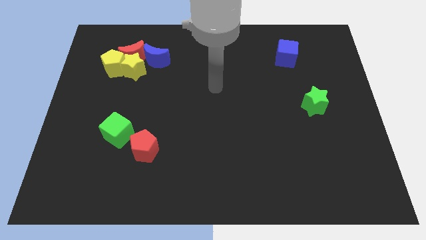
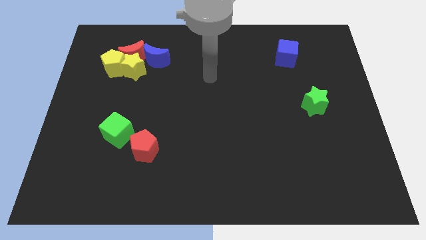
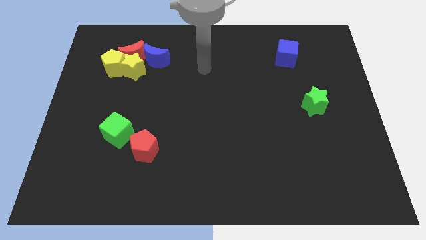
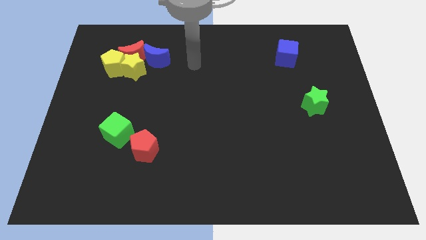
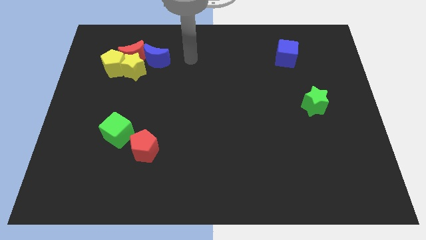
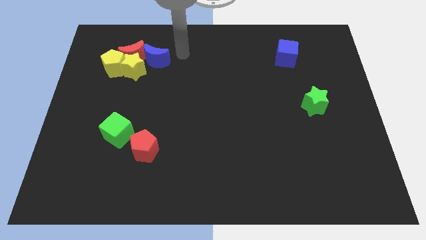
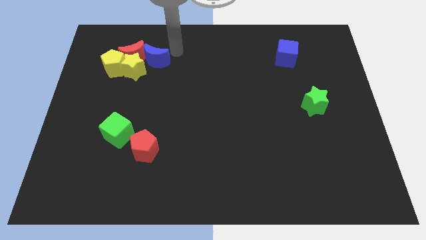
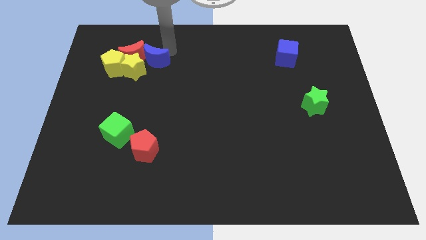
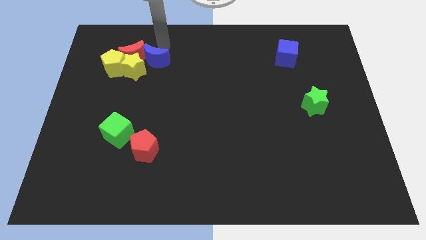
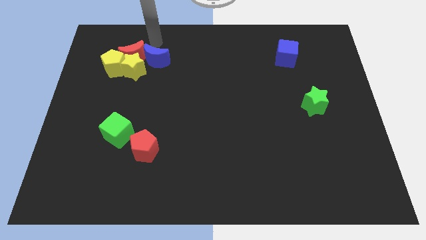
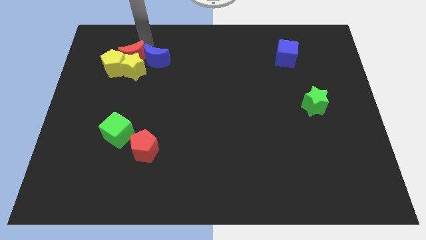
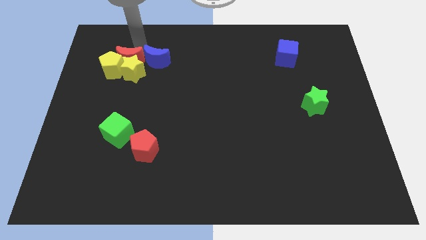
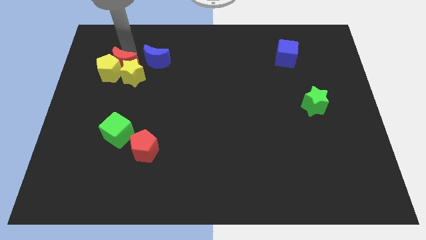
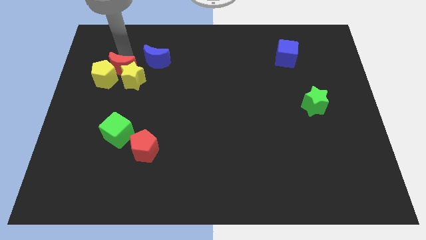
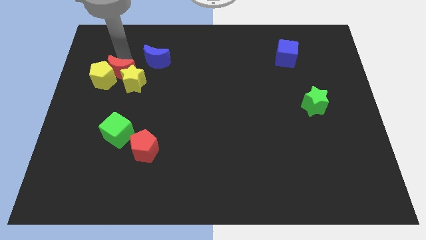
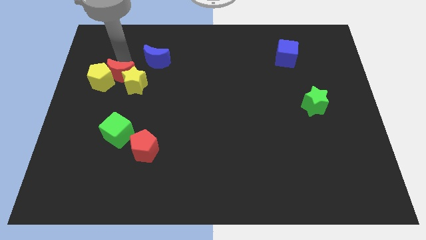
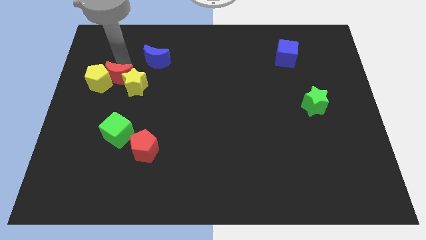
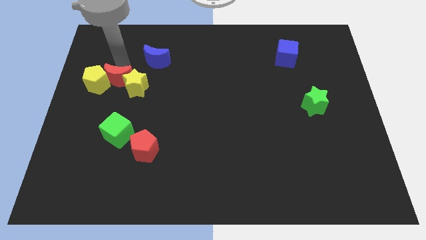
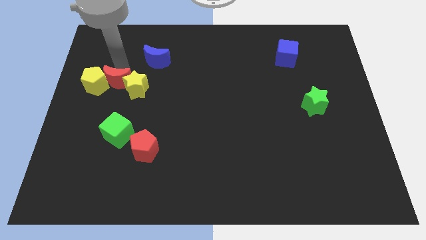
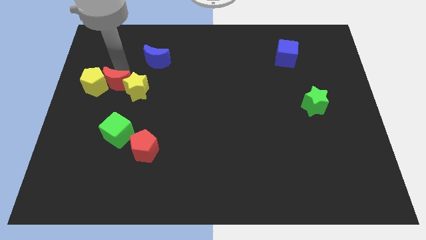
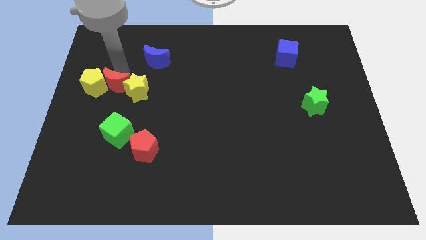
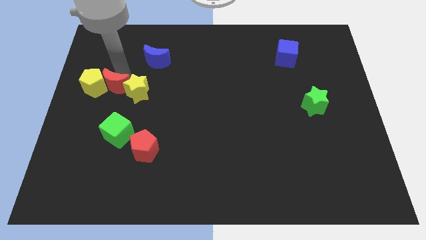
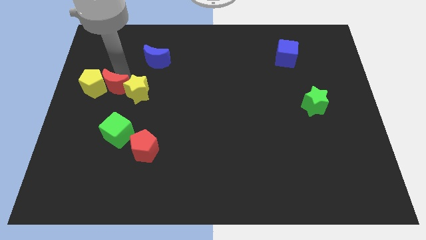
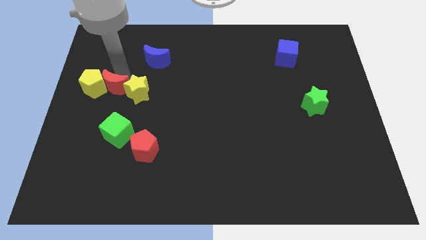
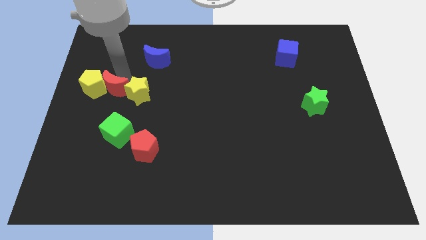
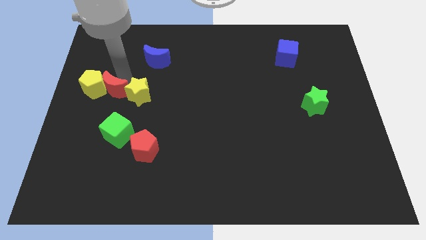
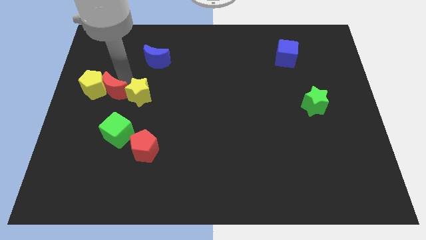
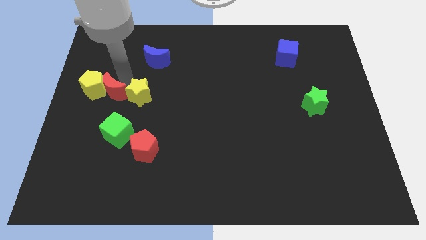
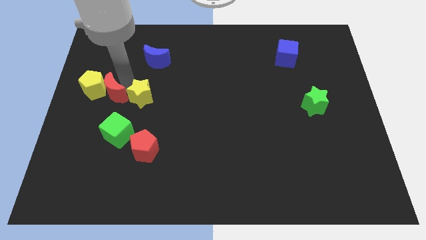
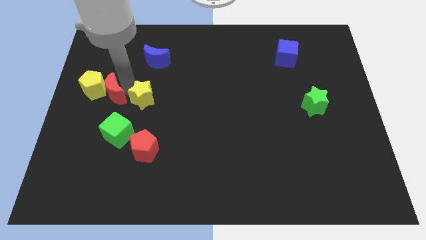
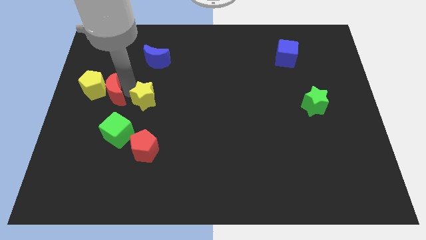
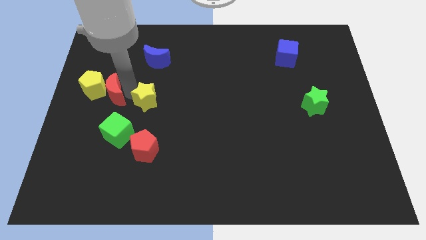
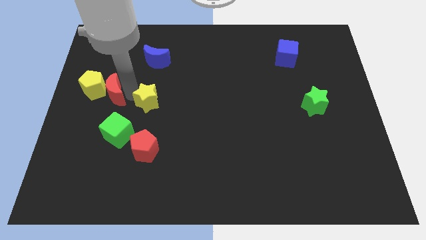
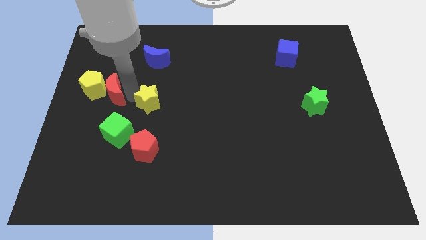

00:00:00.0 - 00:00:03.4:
separate the yellow star from the red moon, yellow pentagon, and blue moon

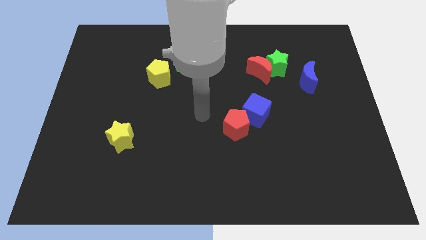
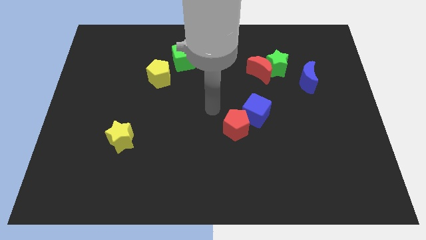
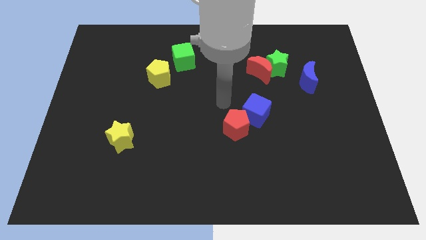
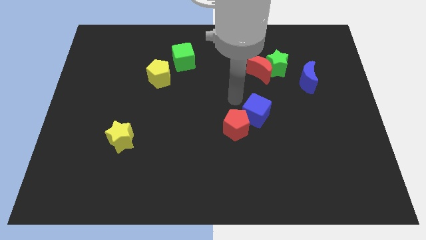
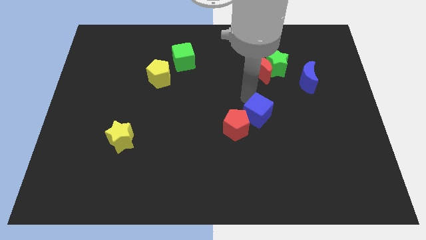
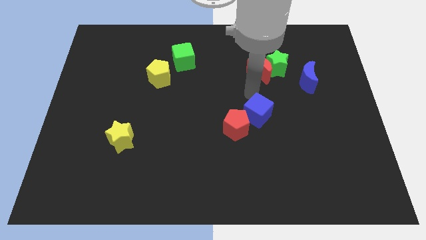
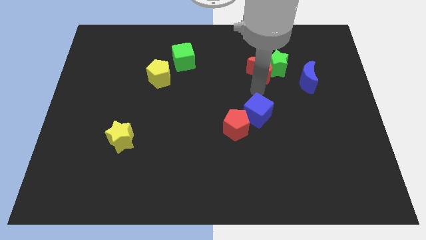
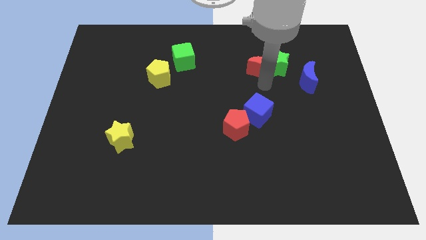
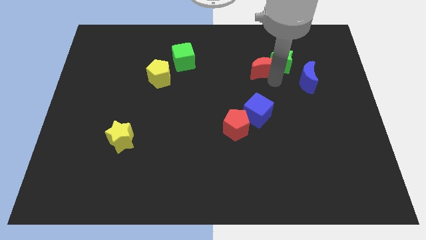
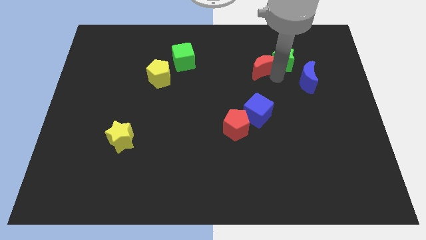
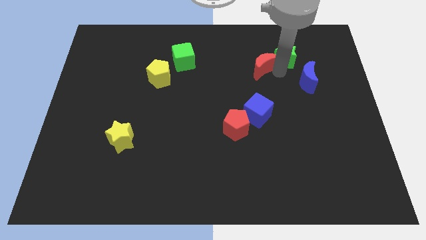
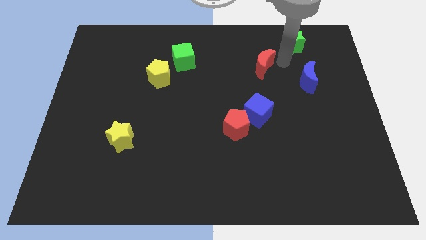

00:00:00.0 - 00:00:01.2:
pull the red moon apart from the green star

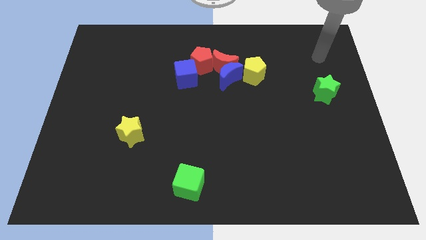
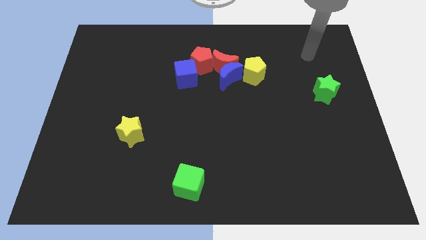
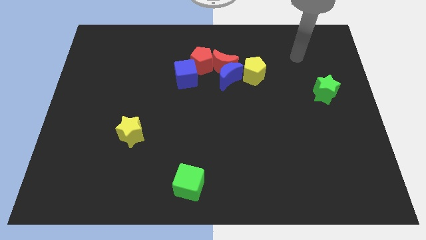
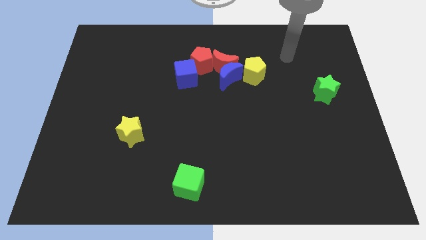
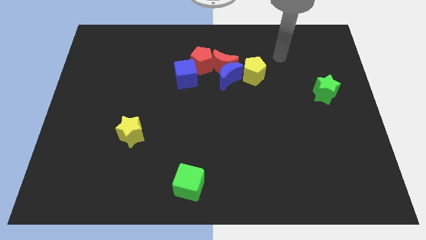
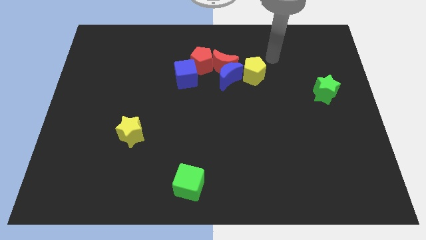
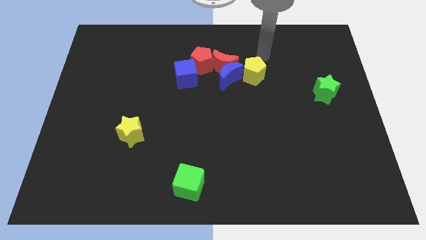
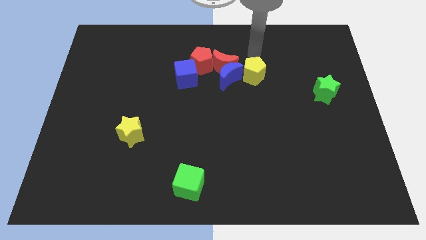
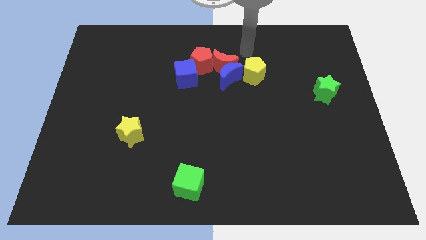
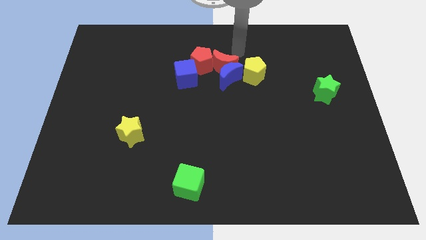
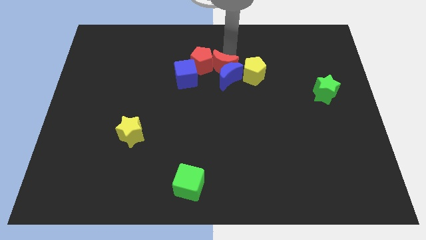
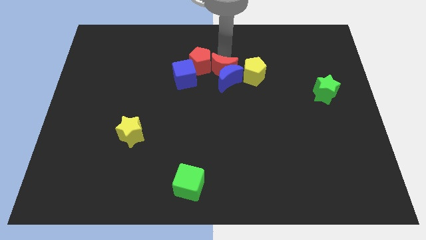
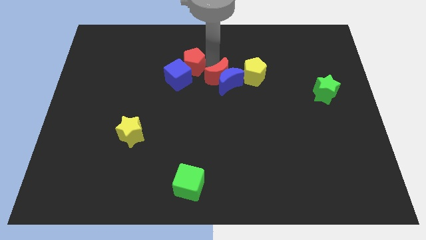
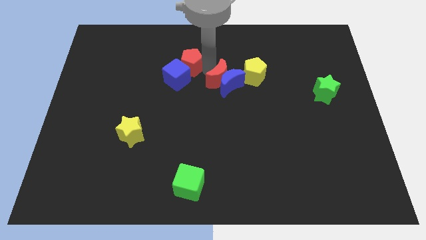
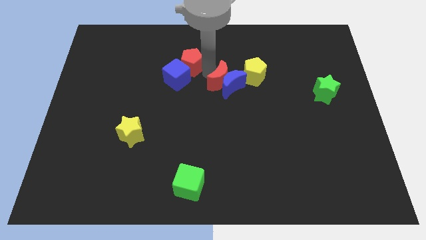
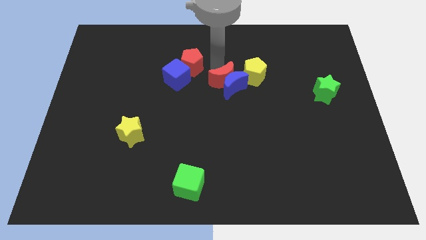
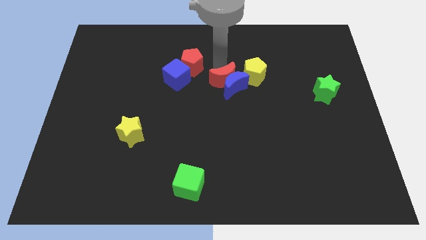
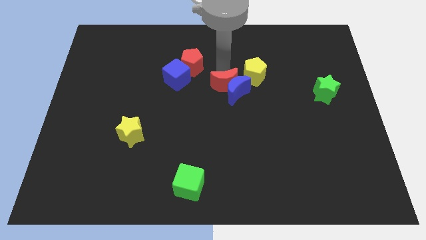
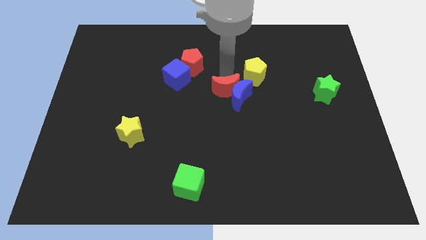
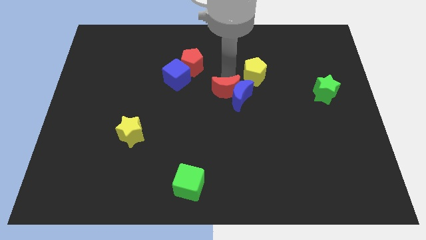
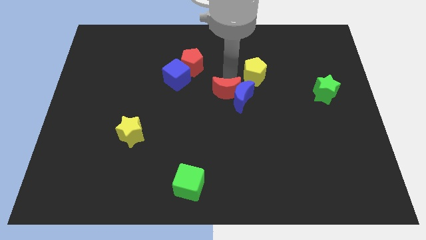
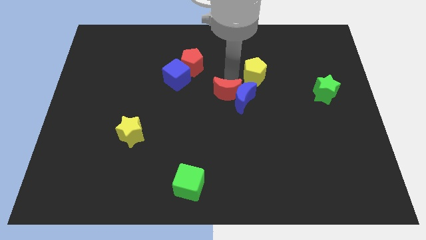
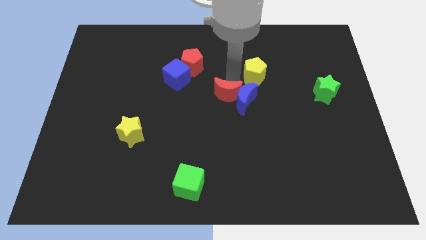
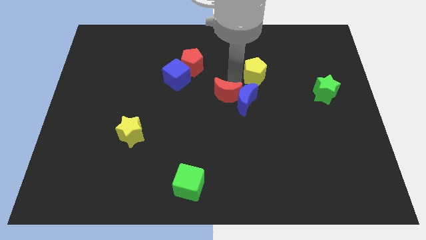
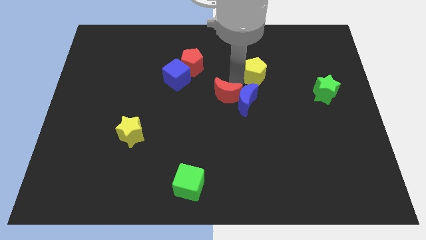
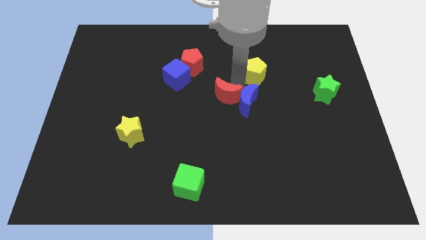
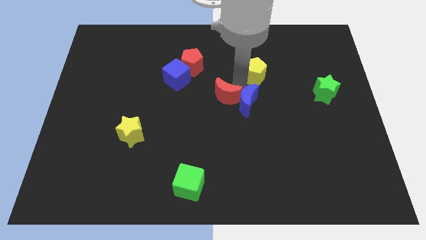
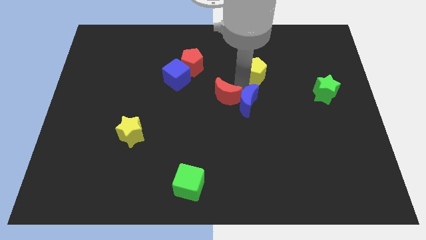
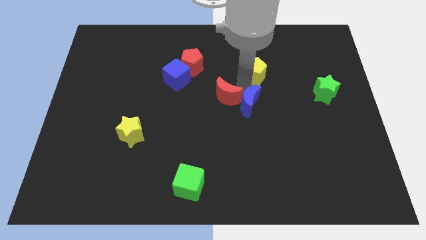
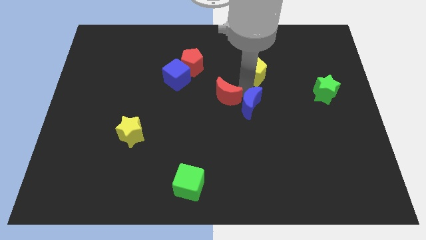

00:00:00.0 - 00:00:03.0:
separate the blue moon from the red moon, yellow pentagon, and red pentagon

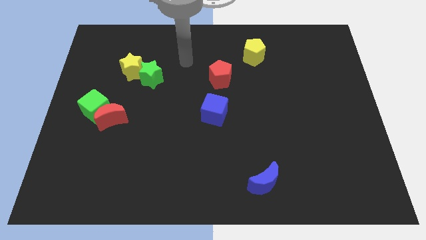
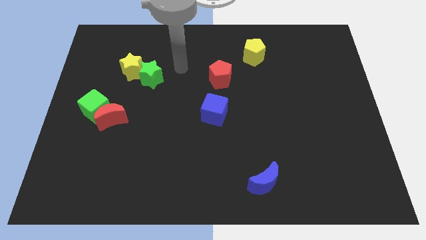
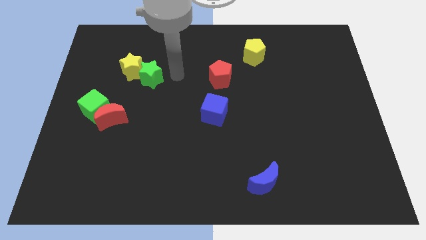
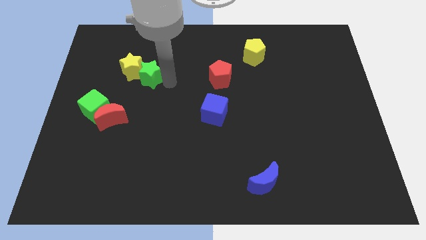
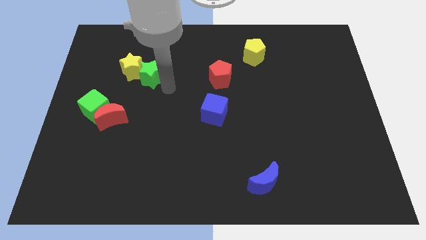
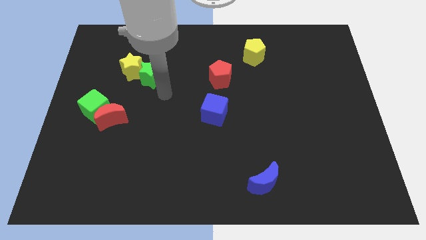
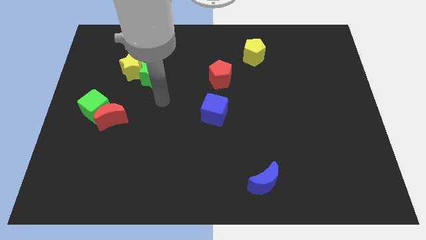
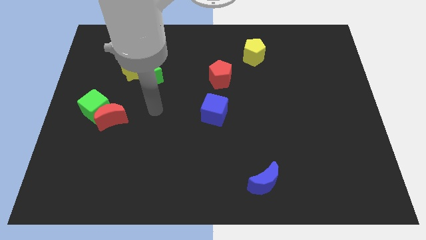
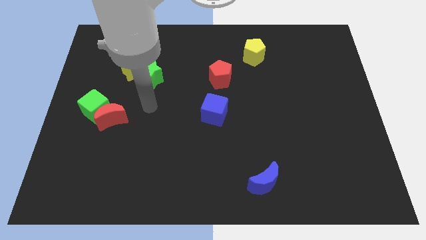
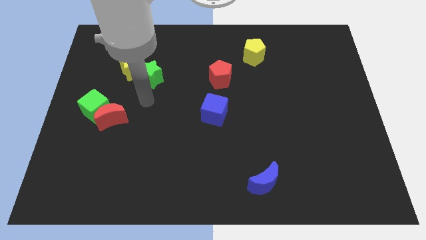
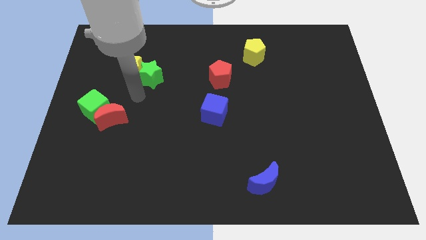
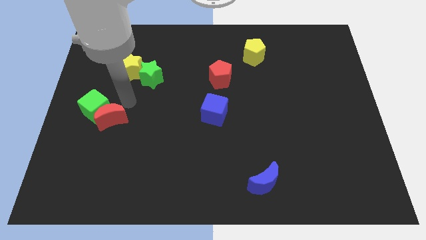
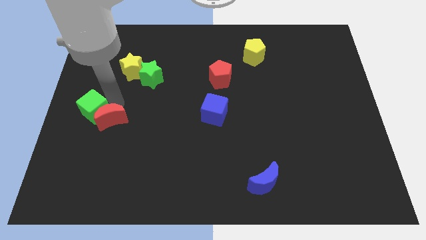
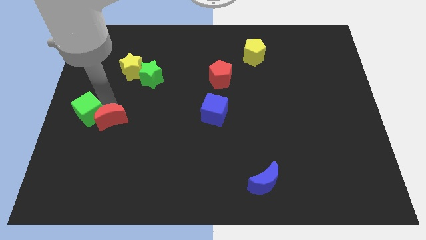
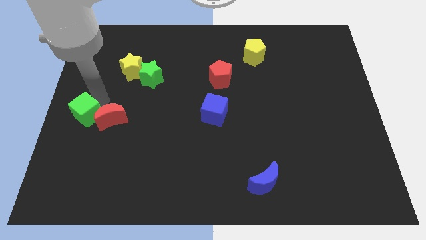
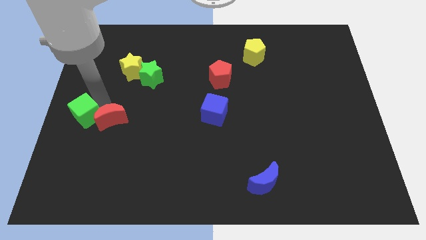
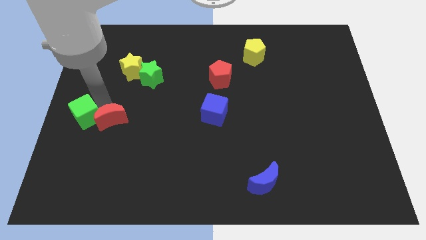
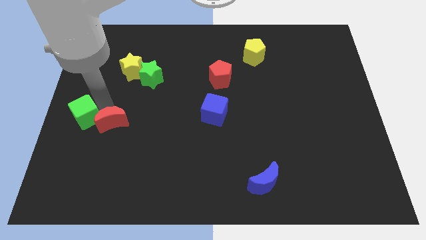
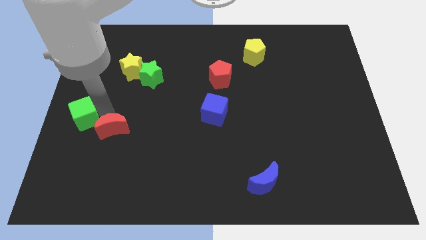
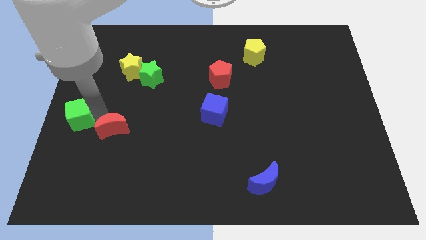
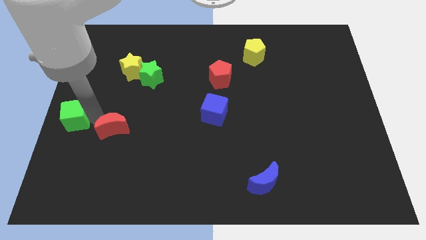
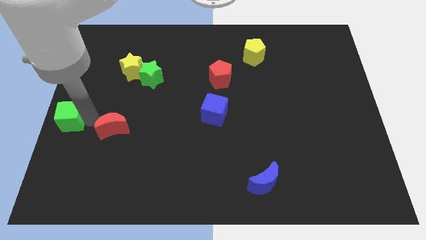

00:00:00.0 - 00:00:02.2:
separate the red moon from the green cube
